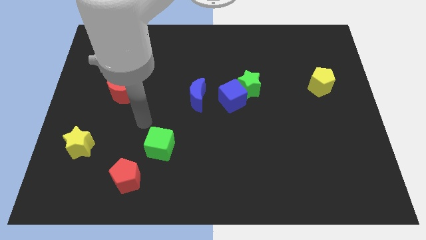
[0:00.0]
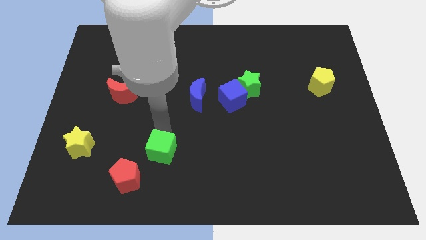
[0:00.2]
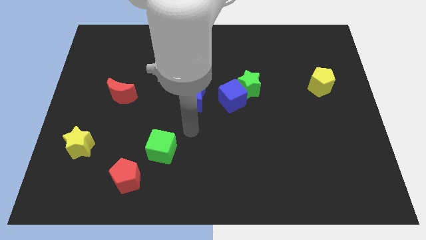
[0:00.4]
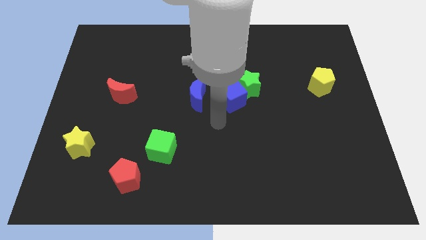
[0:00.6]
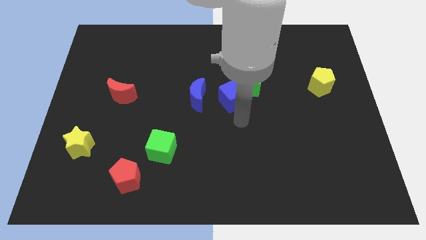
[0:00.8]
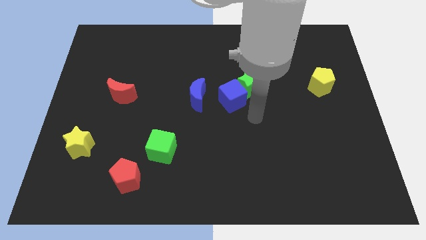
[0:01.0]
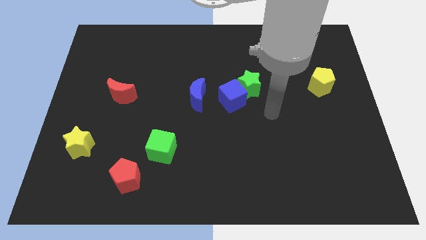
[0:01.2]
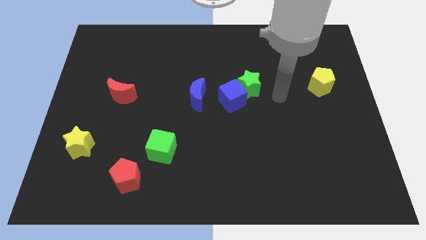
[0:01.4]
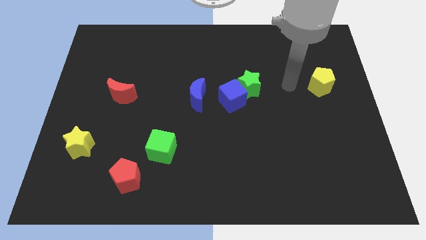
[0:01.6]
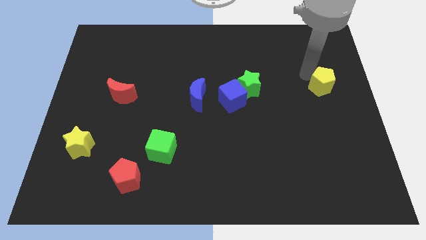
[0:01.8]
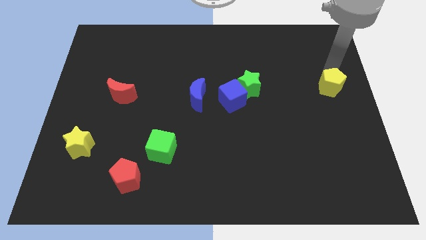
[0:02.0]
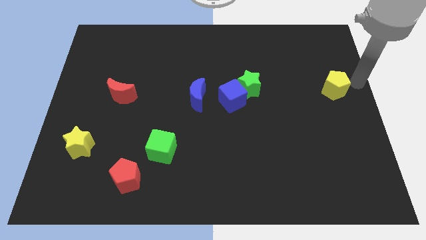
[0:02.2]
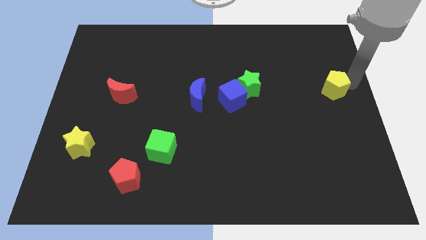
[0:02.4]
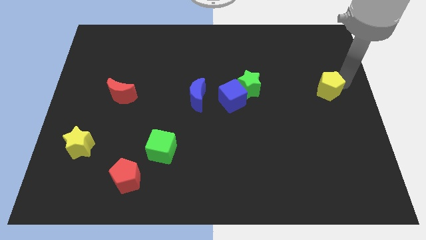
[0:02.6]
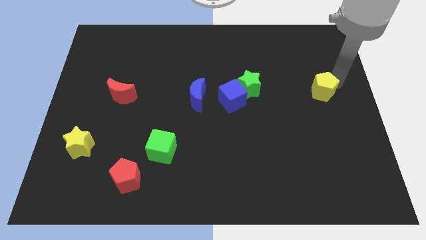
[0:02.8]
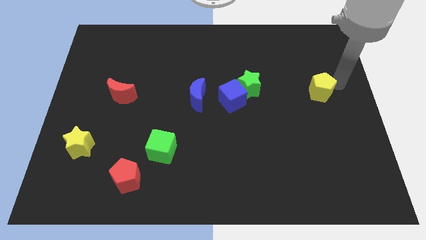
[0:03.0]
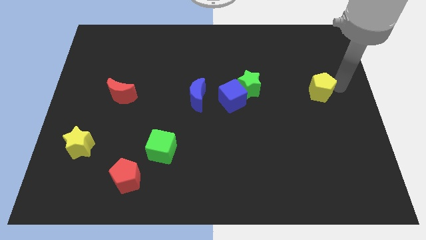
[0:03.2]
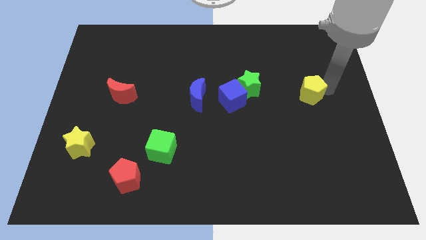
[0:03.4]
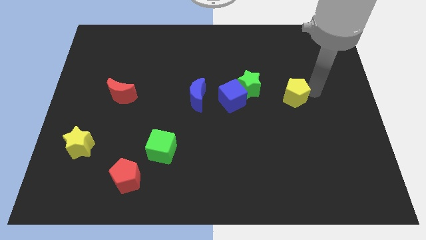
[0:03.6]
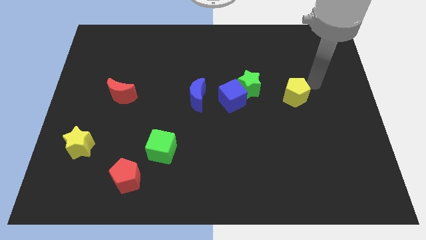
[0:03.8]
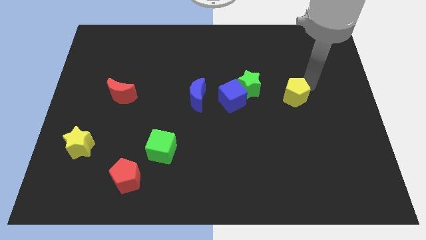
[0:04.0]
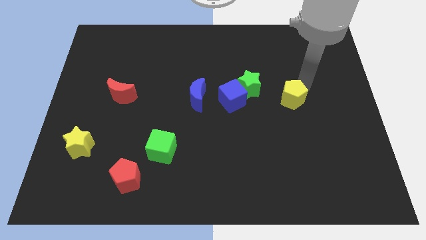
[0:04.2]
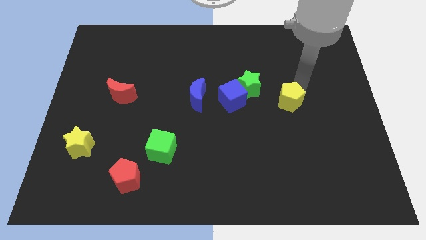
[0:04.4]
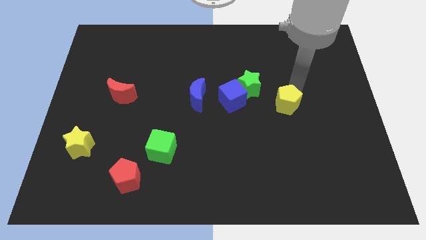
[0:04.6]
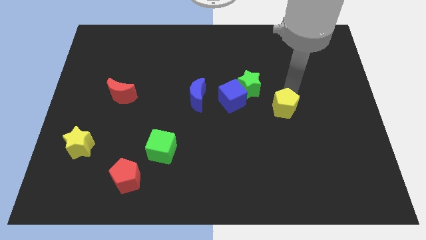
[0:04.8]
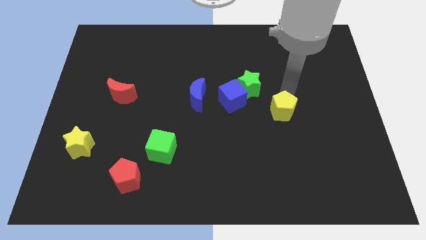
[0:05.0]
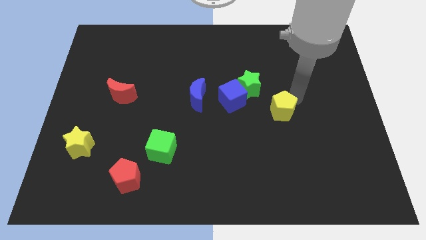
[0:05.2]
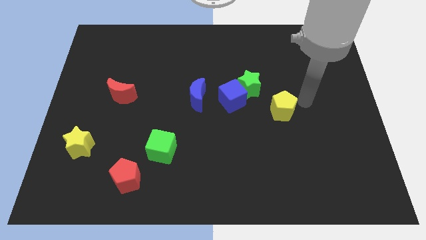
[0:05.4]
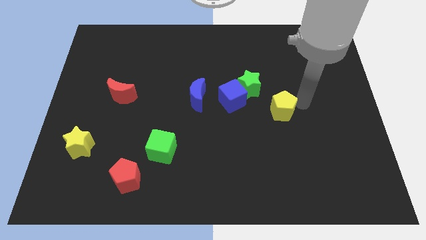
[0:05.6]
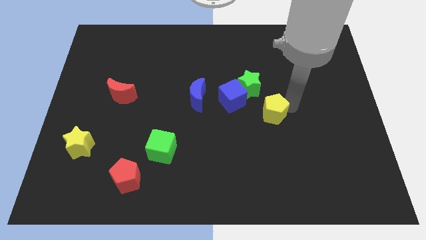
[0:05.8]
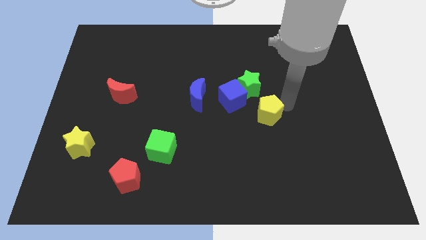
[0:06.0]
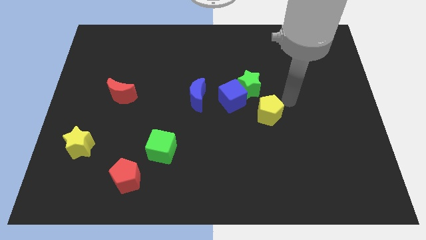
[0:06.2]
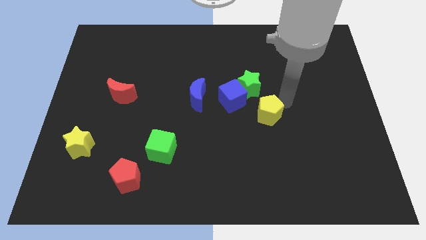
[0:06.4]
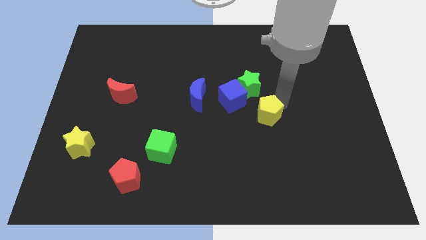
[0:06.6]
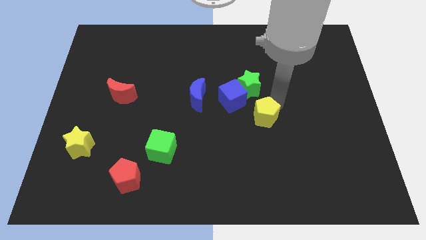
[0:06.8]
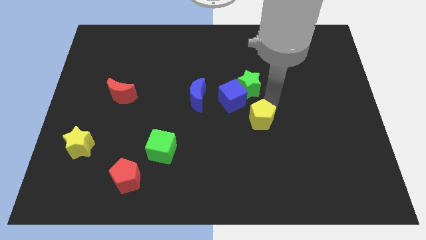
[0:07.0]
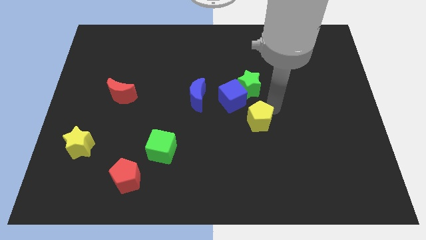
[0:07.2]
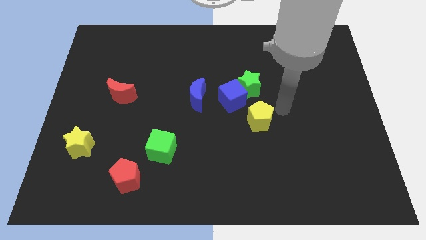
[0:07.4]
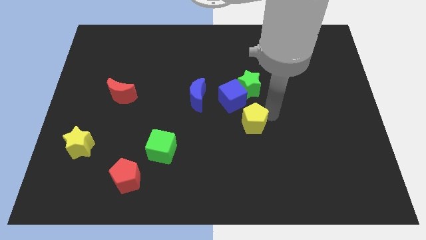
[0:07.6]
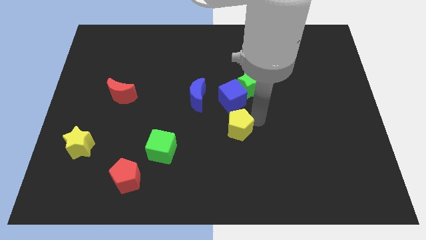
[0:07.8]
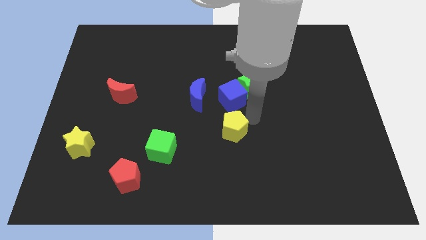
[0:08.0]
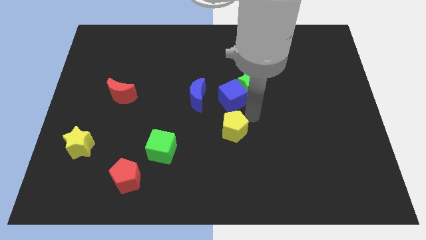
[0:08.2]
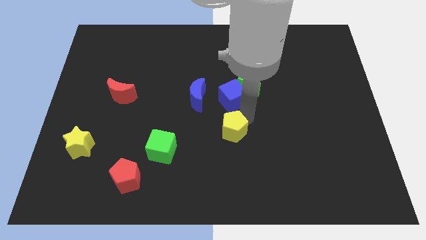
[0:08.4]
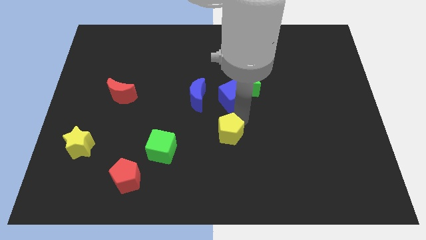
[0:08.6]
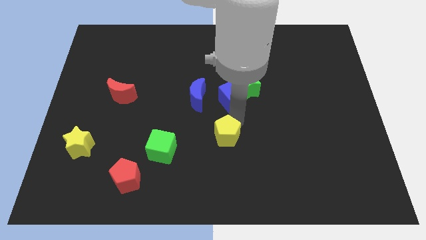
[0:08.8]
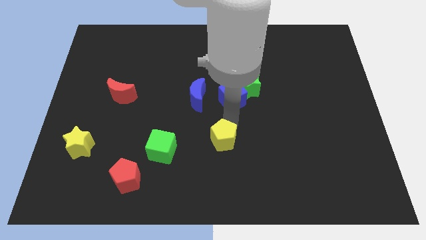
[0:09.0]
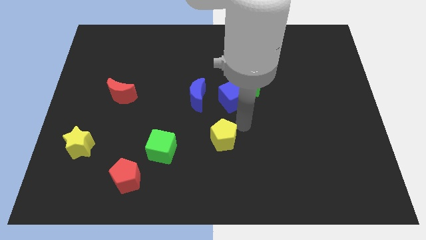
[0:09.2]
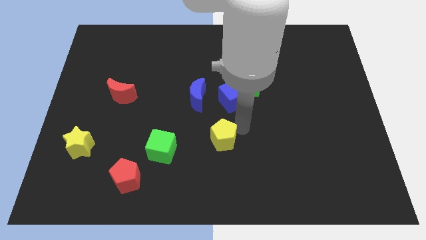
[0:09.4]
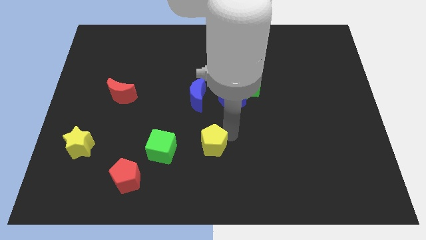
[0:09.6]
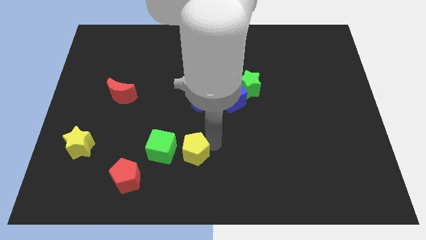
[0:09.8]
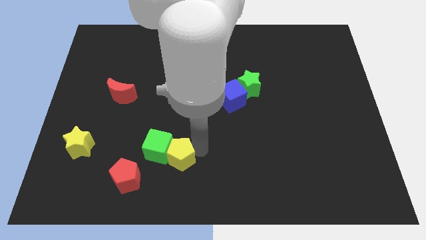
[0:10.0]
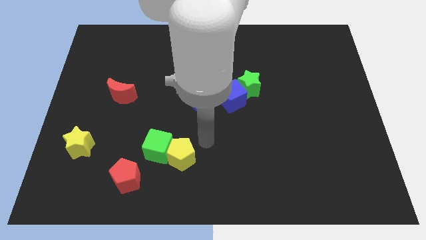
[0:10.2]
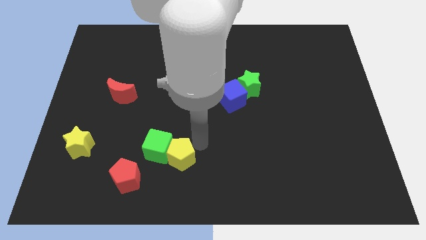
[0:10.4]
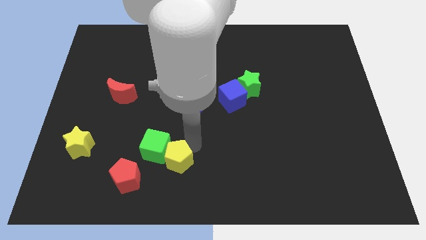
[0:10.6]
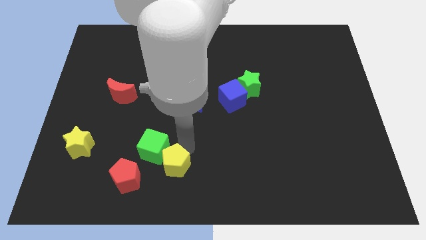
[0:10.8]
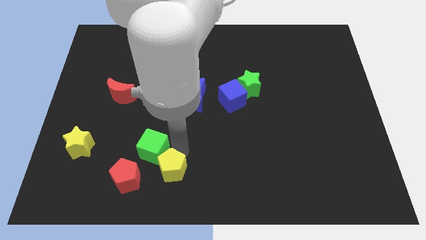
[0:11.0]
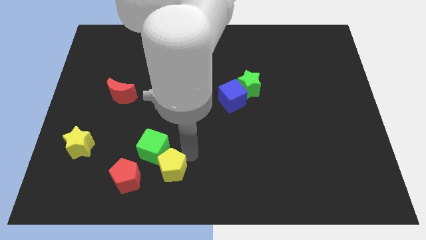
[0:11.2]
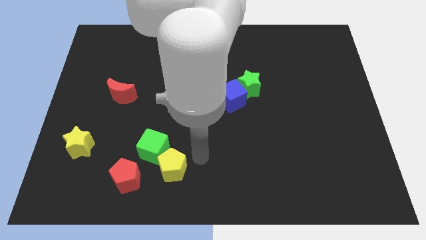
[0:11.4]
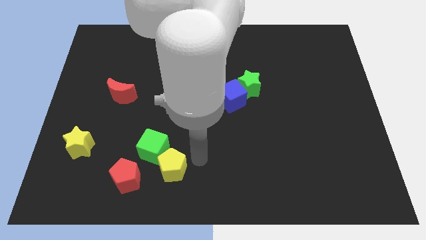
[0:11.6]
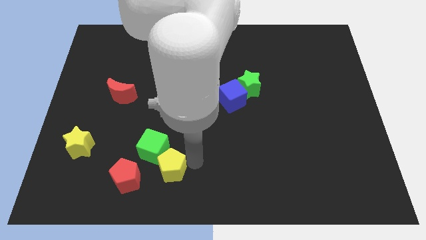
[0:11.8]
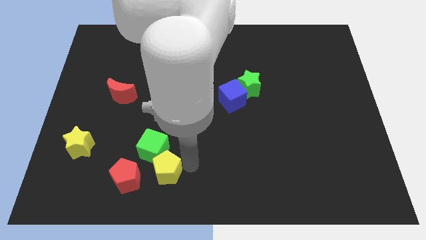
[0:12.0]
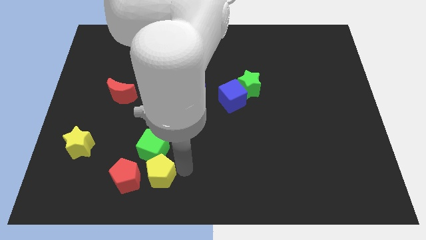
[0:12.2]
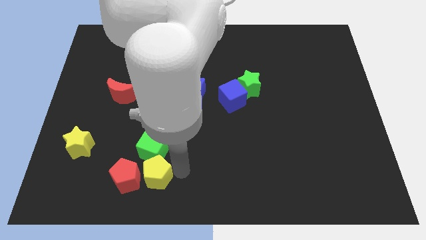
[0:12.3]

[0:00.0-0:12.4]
slide the yellow pentagon towards the red pentagon
